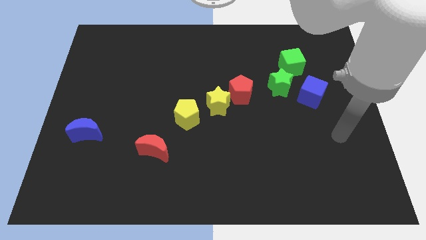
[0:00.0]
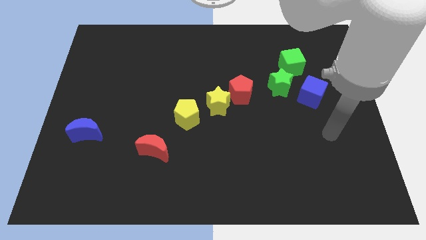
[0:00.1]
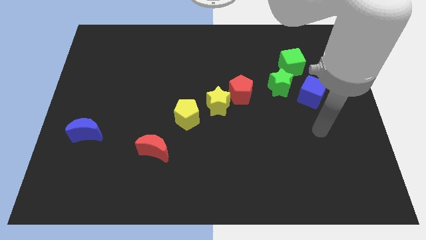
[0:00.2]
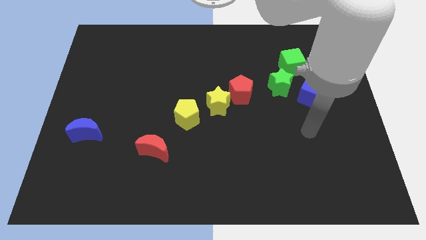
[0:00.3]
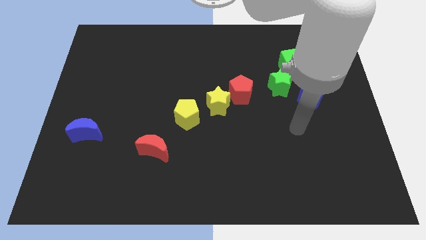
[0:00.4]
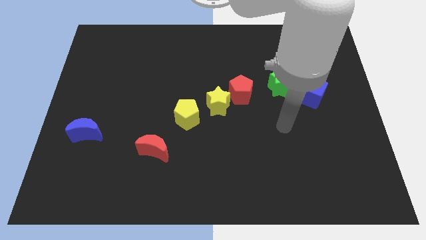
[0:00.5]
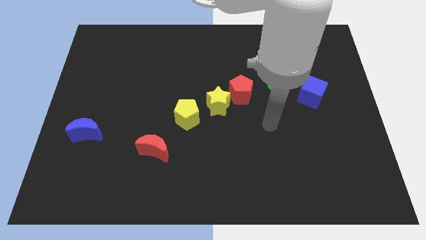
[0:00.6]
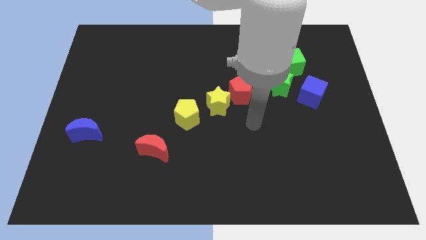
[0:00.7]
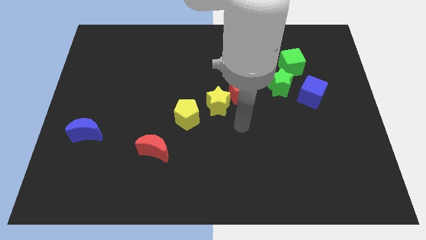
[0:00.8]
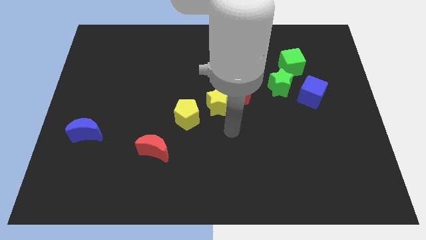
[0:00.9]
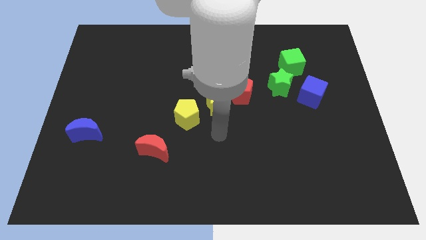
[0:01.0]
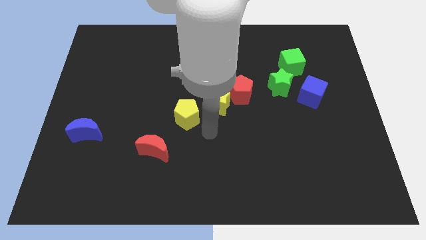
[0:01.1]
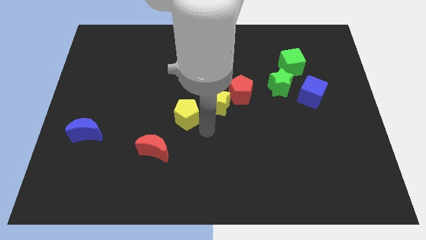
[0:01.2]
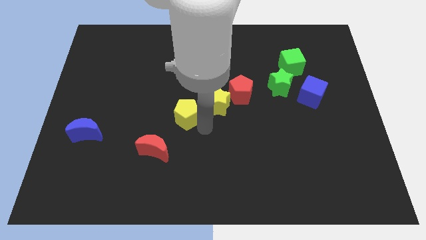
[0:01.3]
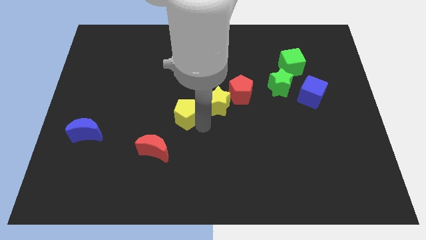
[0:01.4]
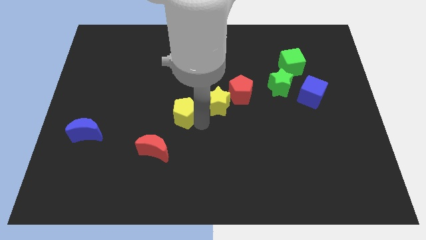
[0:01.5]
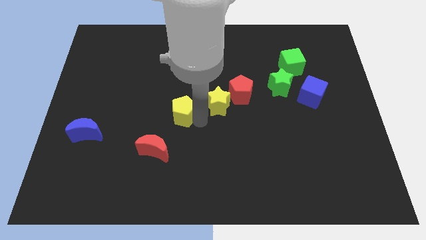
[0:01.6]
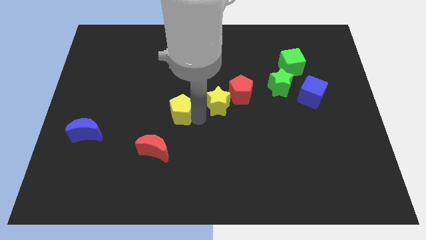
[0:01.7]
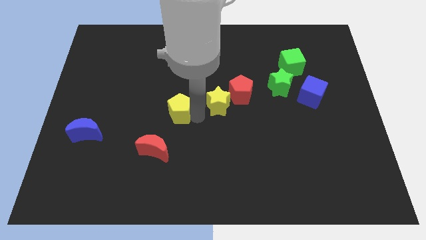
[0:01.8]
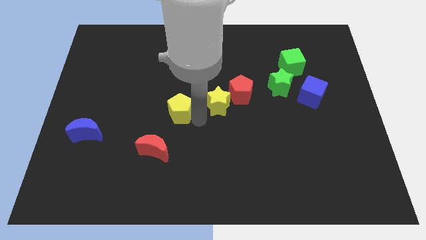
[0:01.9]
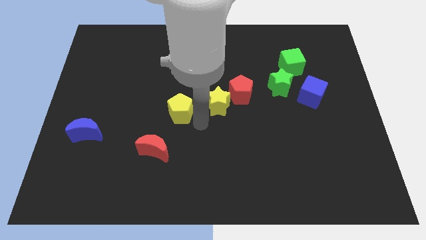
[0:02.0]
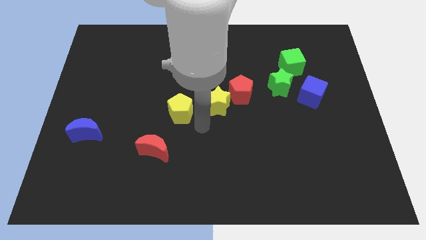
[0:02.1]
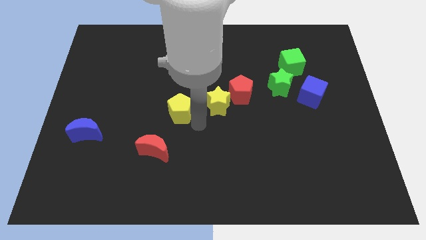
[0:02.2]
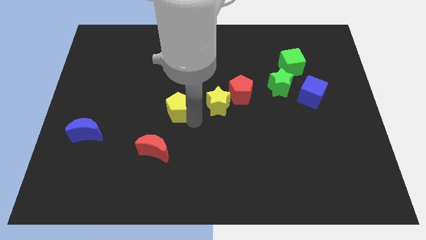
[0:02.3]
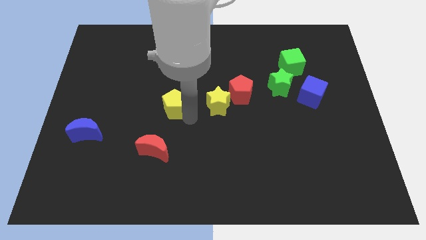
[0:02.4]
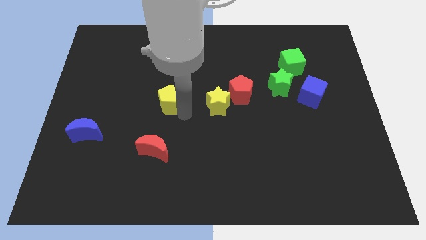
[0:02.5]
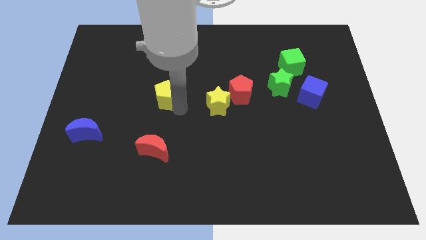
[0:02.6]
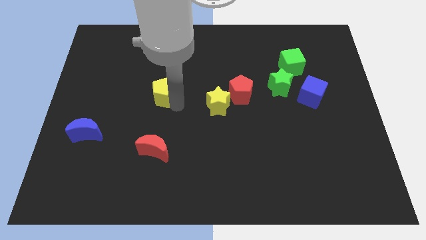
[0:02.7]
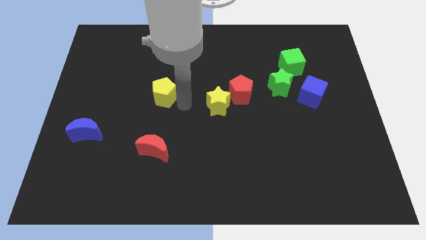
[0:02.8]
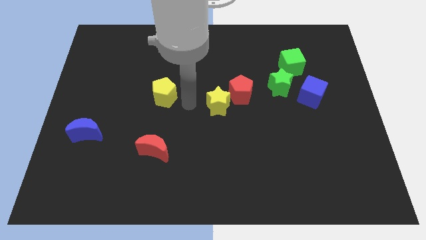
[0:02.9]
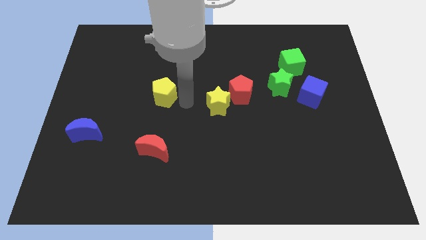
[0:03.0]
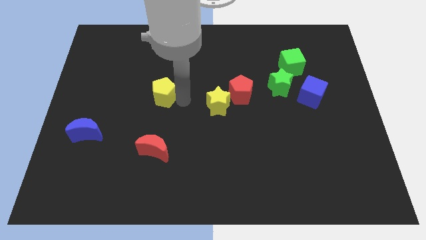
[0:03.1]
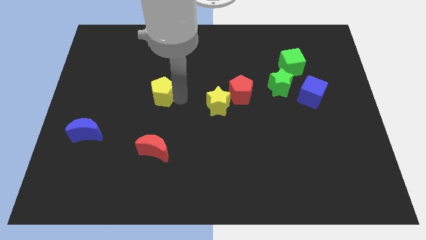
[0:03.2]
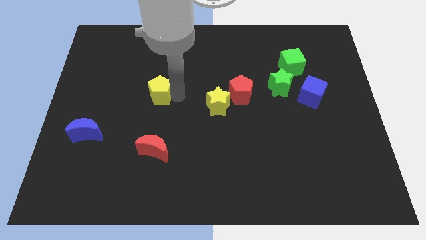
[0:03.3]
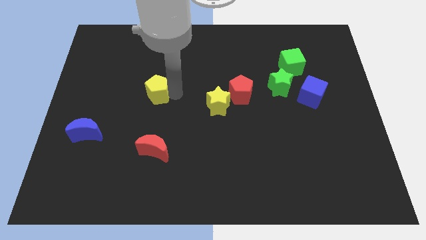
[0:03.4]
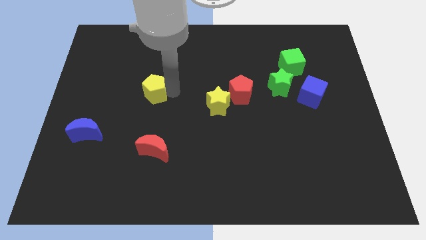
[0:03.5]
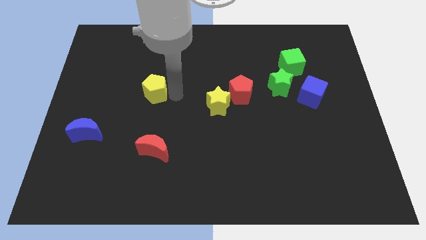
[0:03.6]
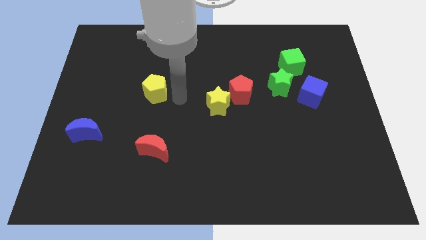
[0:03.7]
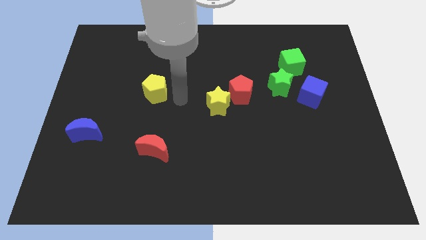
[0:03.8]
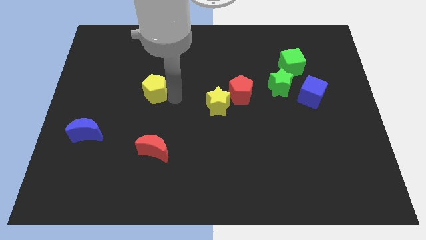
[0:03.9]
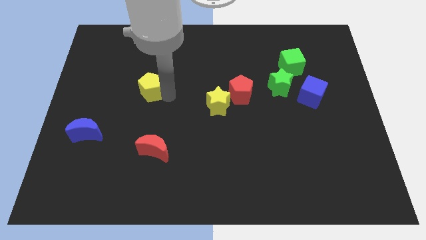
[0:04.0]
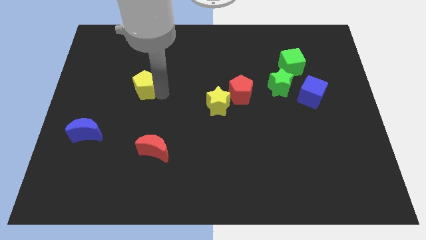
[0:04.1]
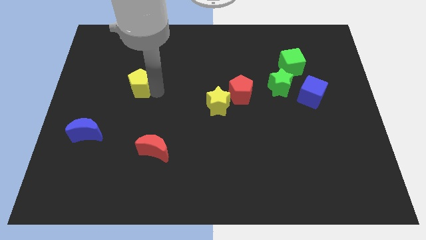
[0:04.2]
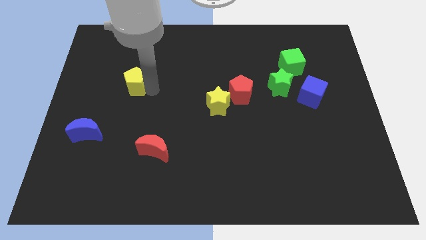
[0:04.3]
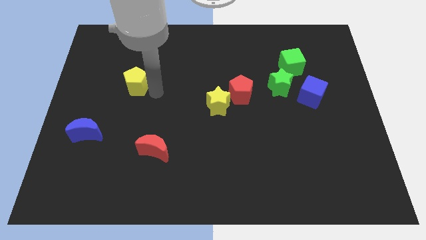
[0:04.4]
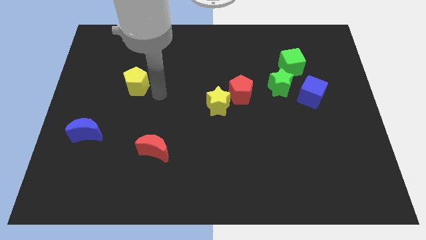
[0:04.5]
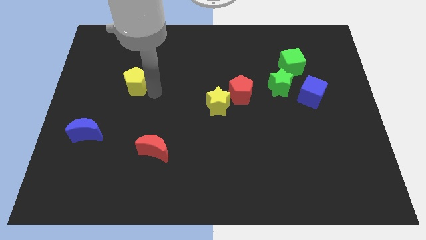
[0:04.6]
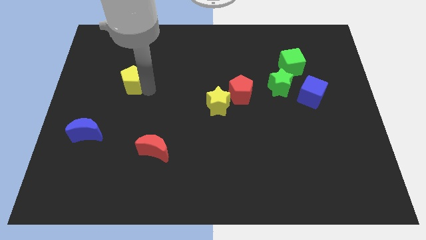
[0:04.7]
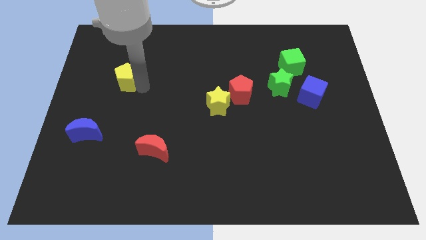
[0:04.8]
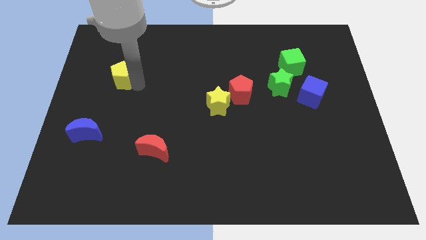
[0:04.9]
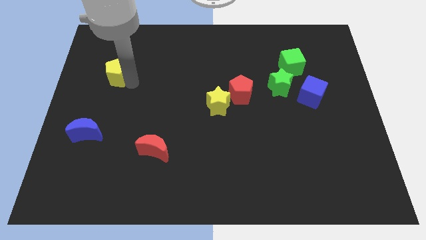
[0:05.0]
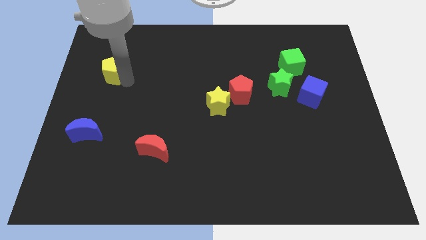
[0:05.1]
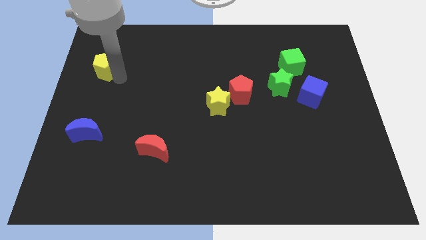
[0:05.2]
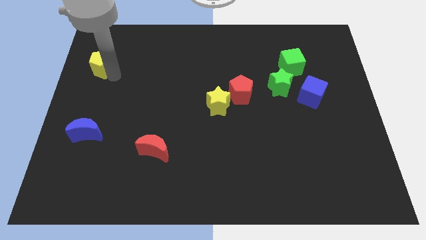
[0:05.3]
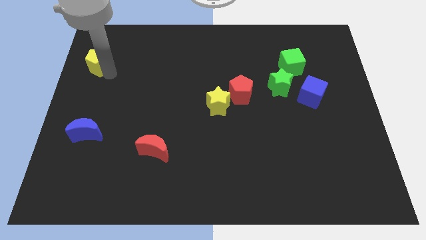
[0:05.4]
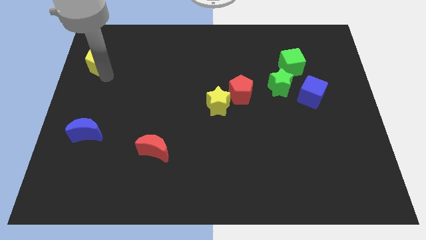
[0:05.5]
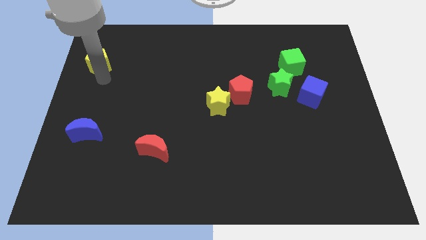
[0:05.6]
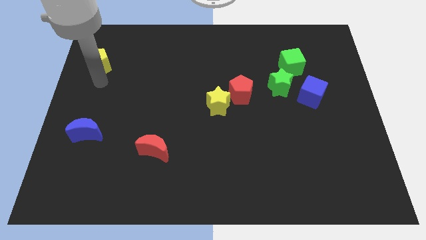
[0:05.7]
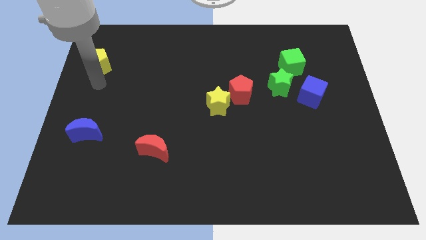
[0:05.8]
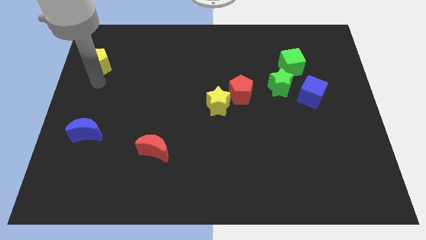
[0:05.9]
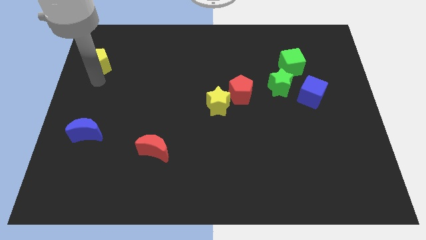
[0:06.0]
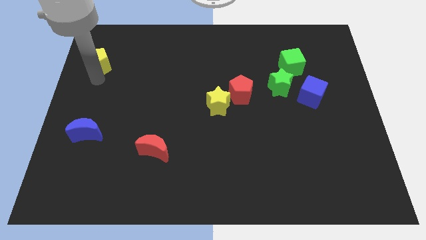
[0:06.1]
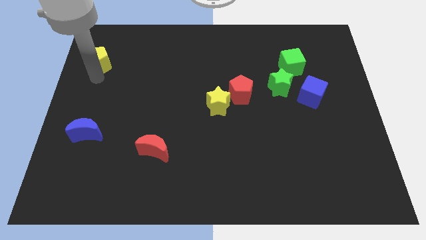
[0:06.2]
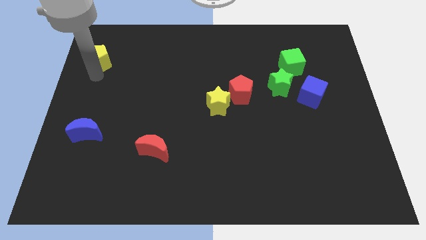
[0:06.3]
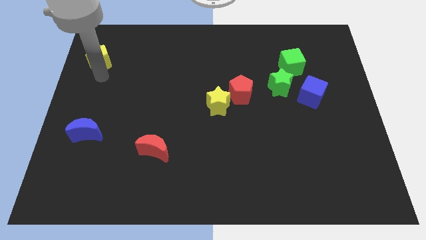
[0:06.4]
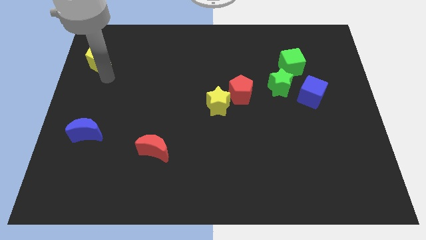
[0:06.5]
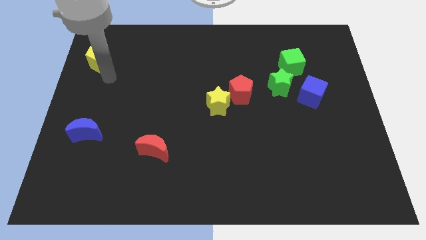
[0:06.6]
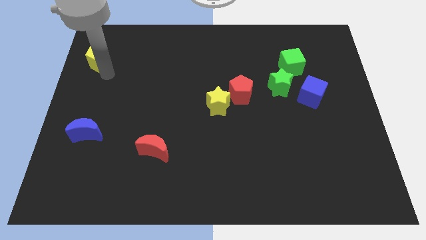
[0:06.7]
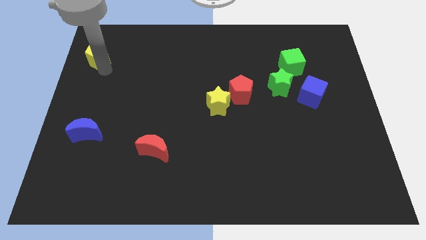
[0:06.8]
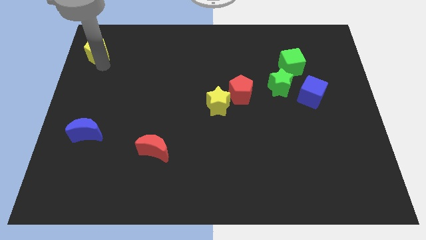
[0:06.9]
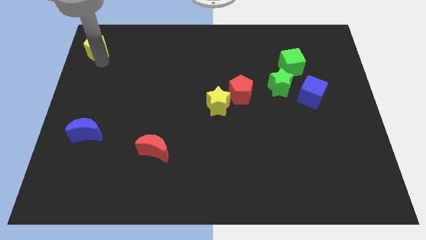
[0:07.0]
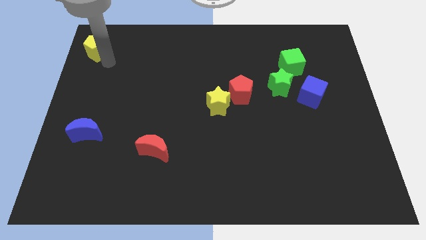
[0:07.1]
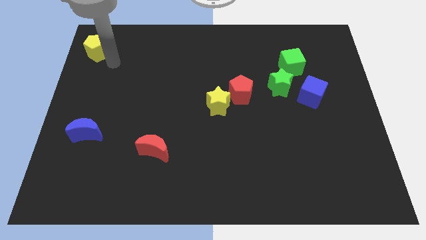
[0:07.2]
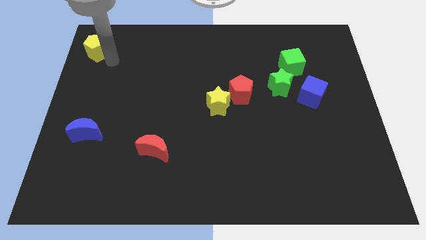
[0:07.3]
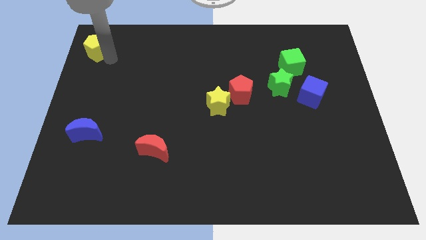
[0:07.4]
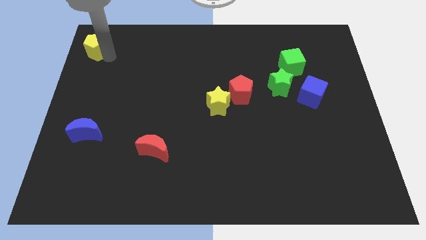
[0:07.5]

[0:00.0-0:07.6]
slide the yellow pentagon to the top left of the board
